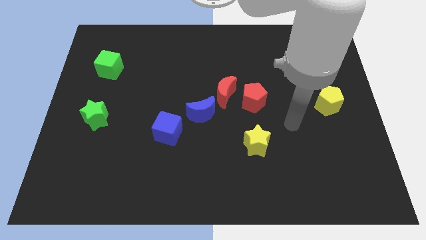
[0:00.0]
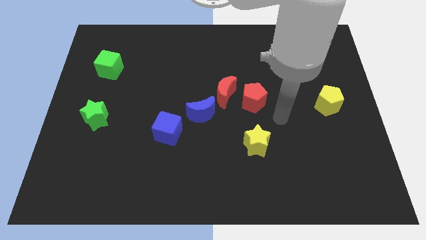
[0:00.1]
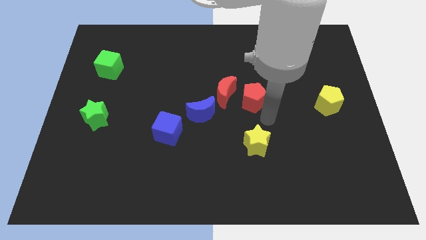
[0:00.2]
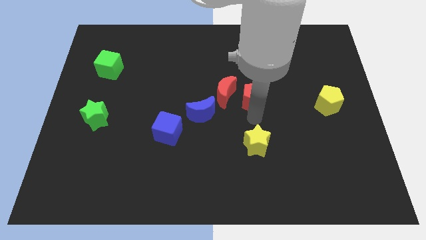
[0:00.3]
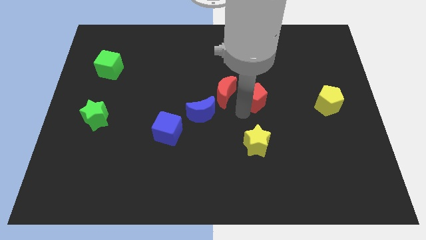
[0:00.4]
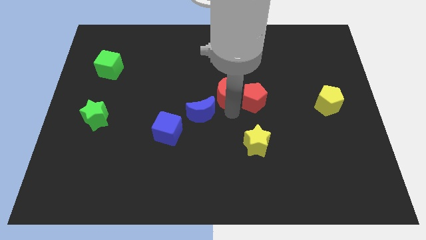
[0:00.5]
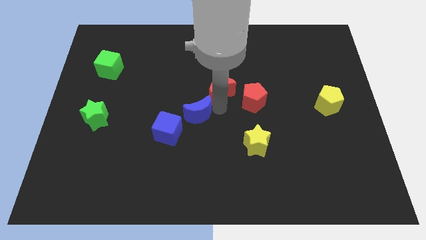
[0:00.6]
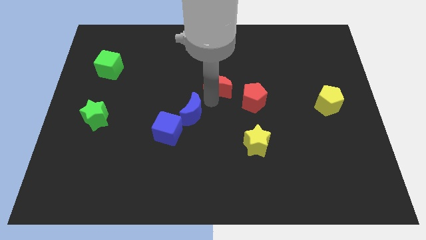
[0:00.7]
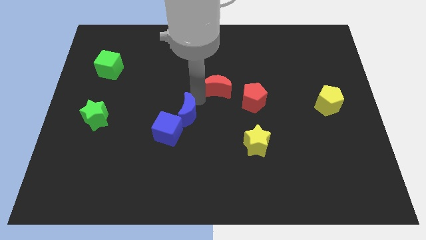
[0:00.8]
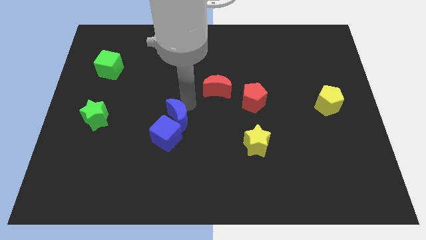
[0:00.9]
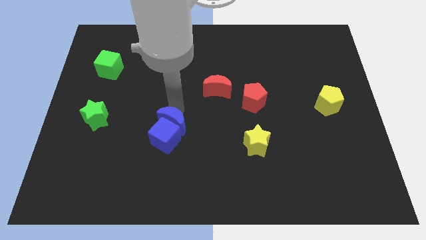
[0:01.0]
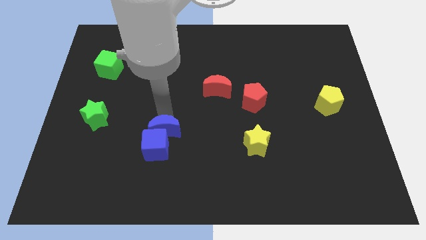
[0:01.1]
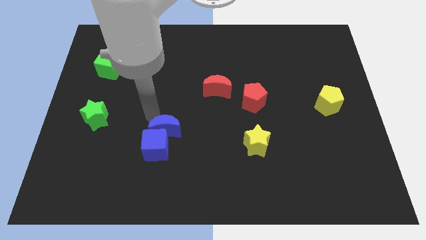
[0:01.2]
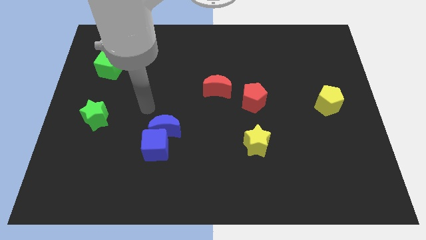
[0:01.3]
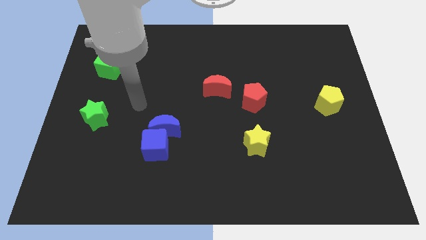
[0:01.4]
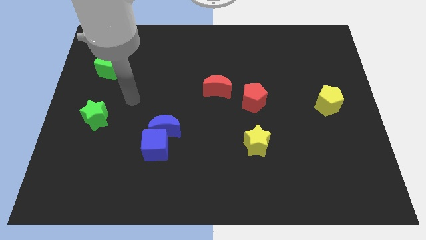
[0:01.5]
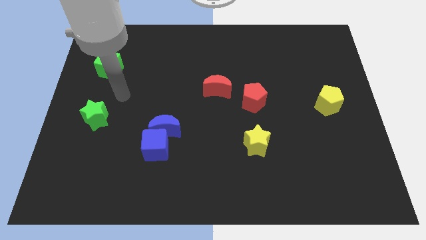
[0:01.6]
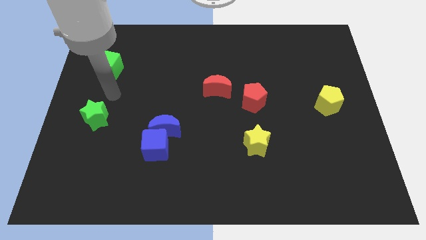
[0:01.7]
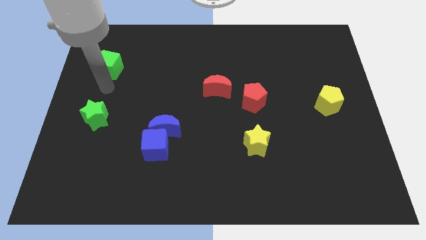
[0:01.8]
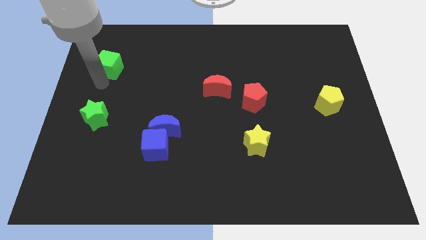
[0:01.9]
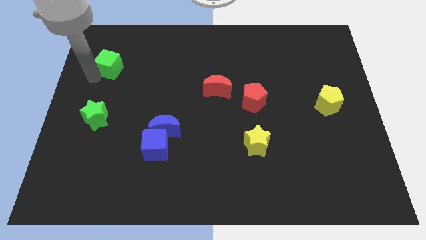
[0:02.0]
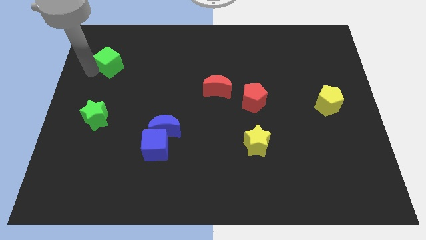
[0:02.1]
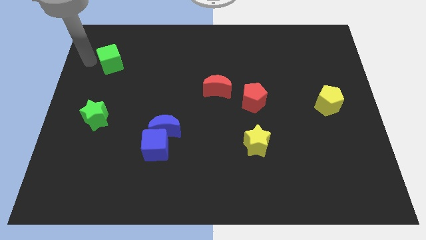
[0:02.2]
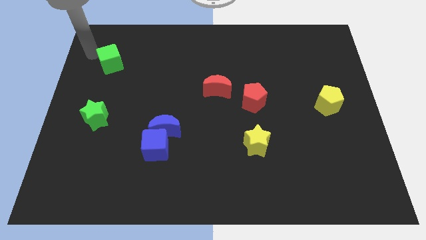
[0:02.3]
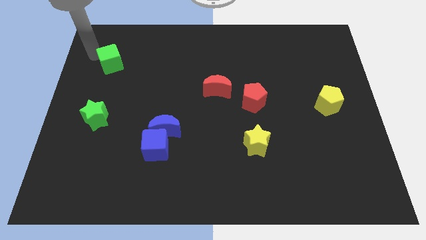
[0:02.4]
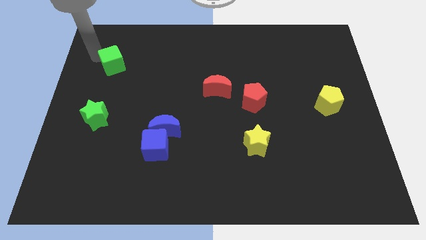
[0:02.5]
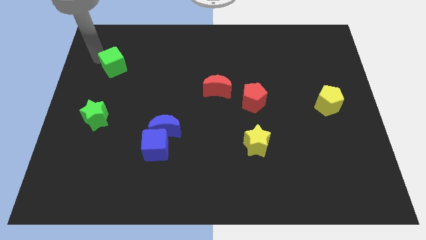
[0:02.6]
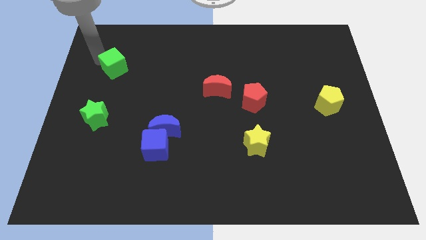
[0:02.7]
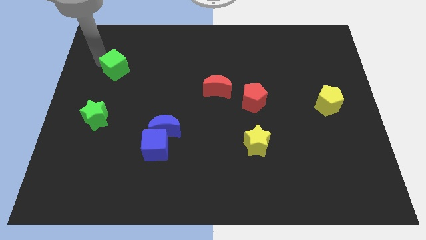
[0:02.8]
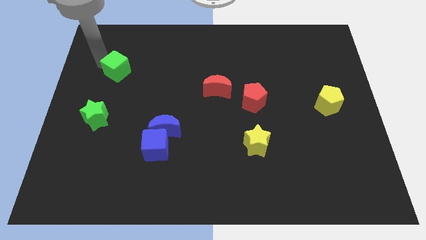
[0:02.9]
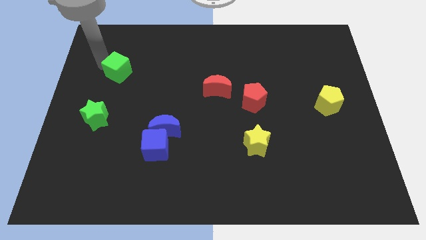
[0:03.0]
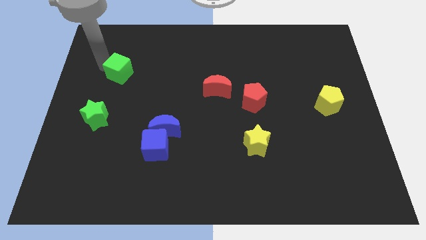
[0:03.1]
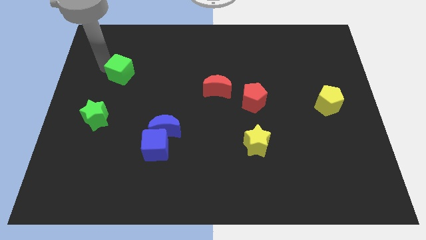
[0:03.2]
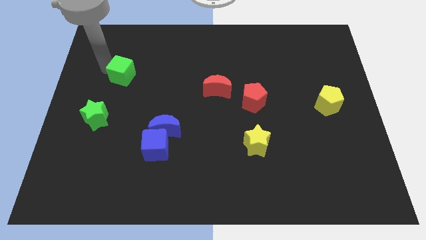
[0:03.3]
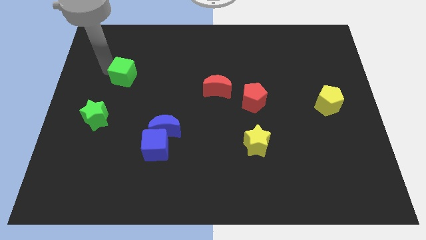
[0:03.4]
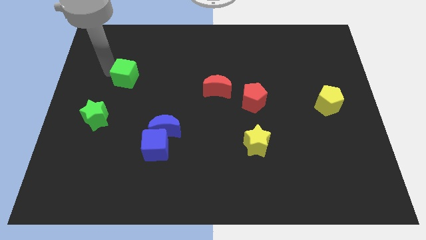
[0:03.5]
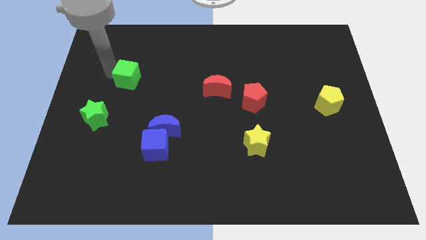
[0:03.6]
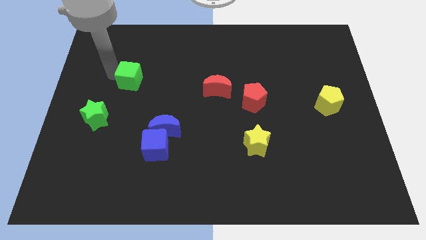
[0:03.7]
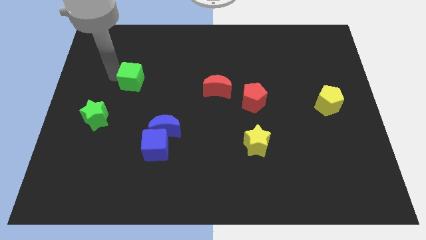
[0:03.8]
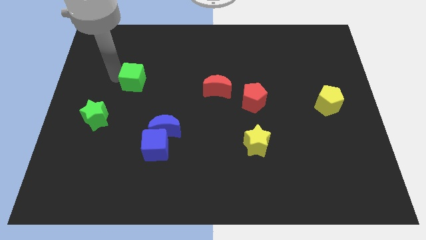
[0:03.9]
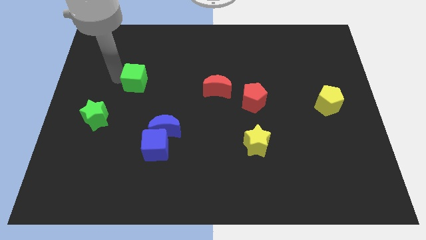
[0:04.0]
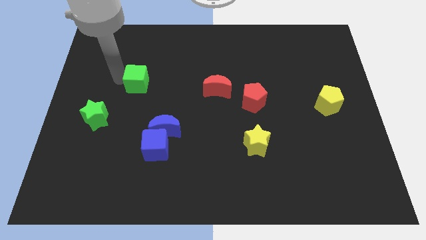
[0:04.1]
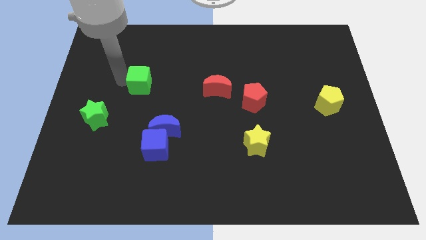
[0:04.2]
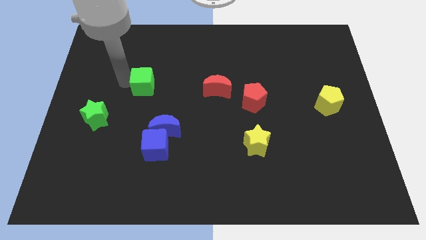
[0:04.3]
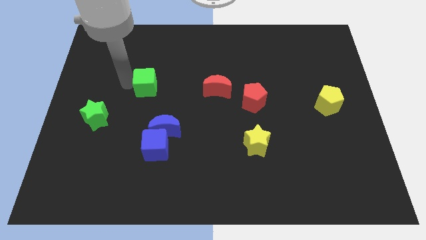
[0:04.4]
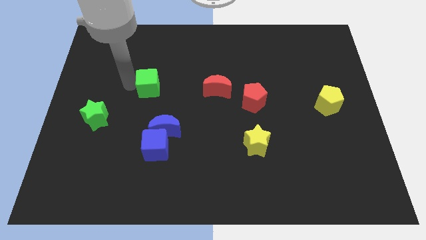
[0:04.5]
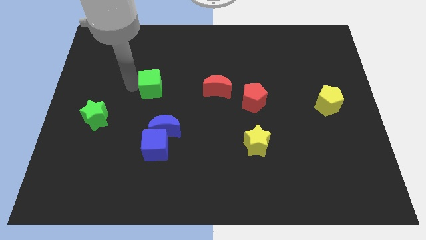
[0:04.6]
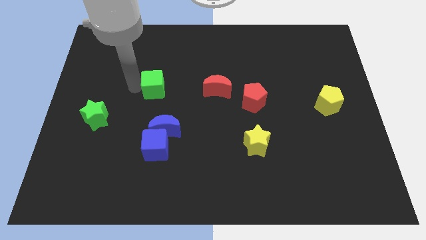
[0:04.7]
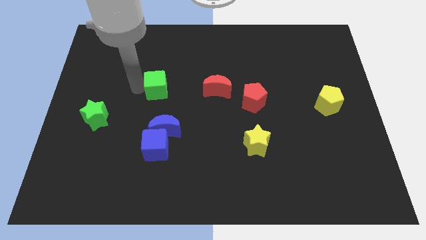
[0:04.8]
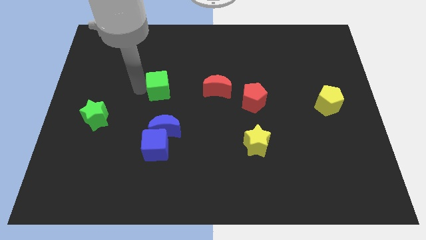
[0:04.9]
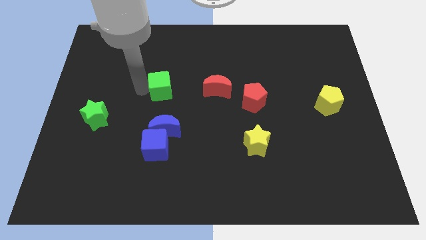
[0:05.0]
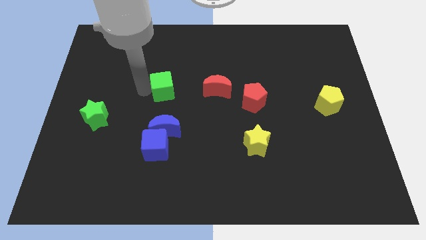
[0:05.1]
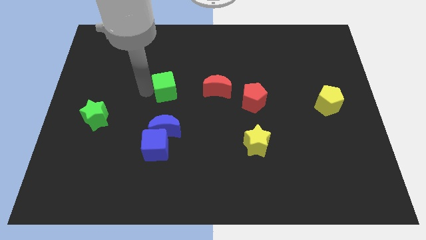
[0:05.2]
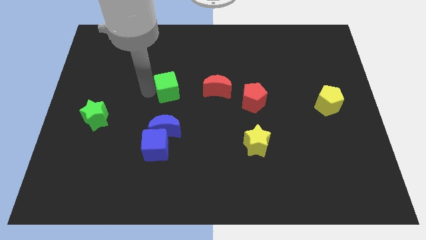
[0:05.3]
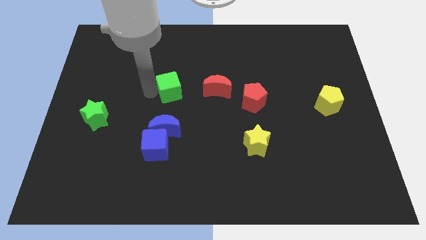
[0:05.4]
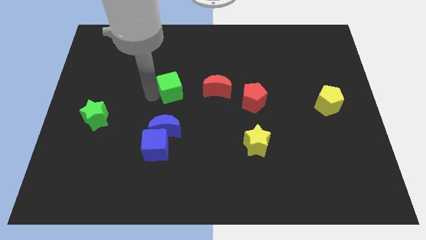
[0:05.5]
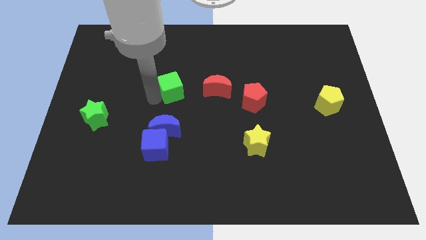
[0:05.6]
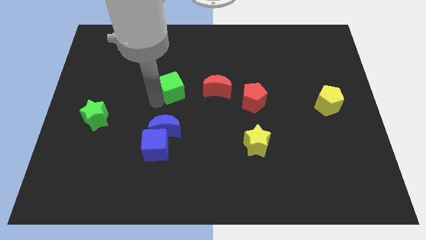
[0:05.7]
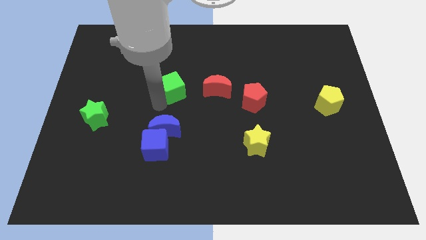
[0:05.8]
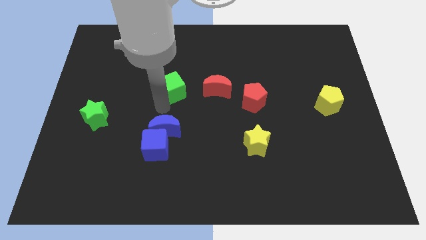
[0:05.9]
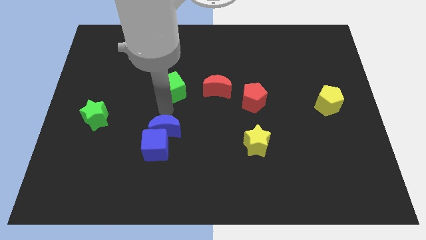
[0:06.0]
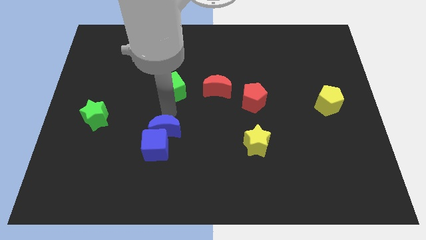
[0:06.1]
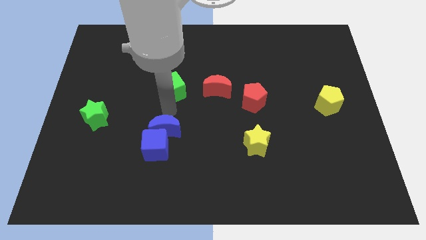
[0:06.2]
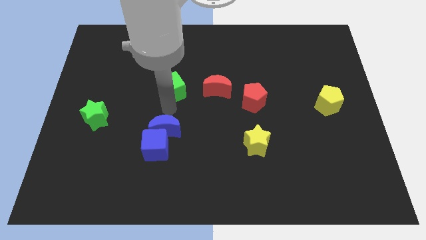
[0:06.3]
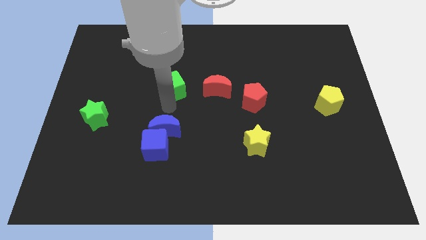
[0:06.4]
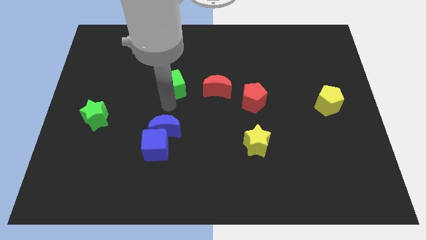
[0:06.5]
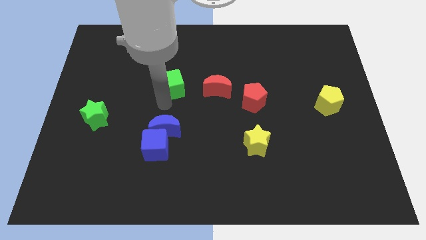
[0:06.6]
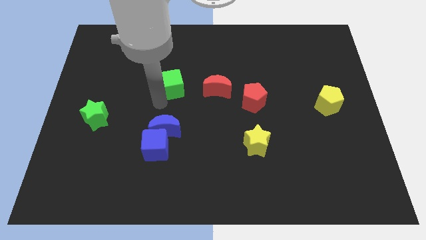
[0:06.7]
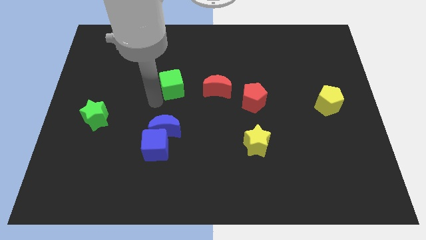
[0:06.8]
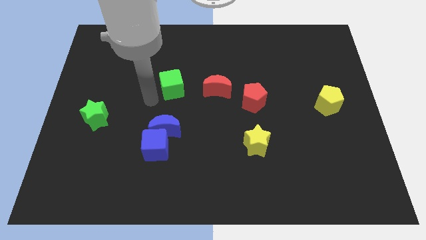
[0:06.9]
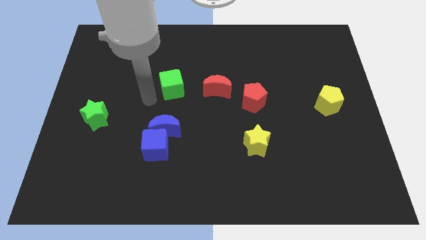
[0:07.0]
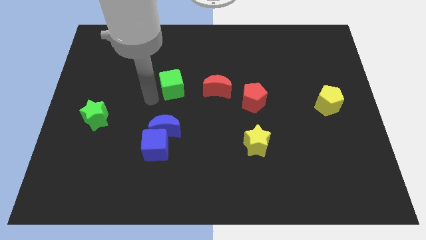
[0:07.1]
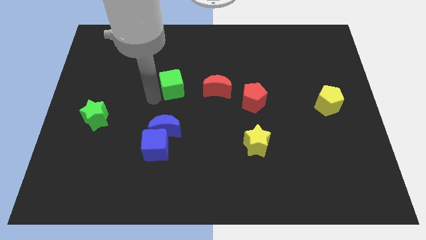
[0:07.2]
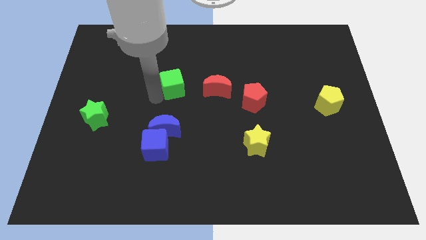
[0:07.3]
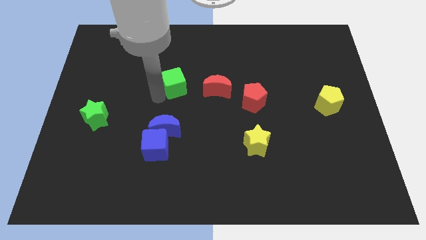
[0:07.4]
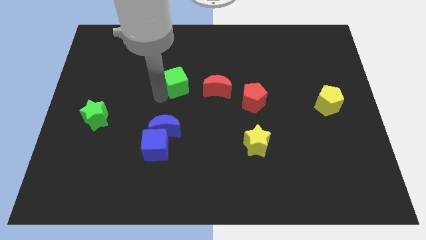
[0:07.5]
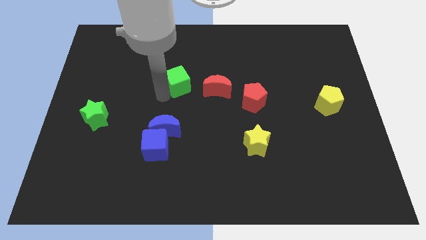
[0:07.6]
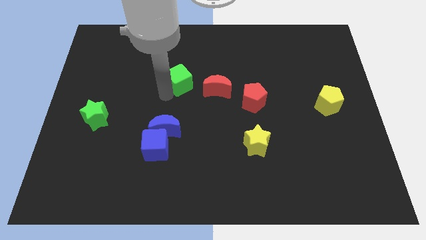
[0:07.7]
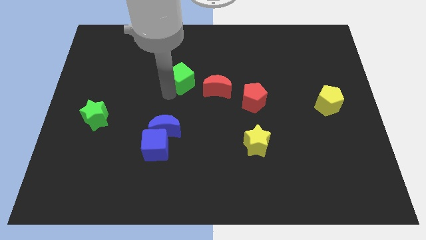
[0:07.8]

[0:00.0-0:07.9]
slide the green cube diagonally up and to the left of the red moon

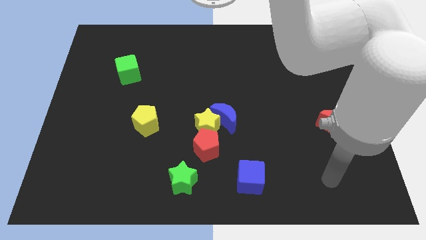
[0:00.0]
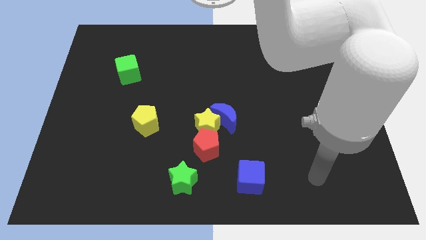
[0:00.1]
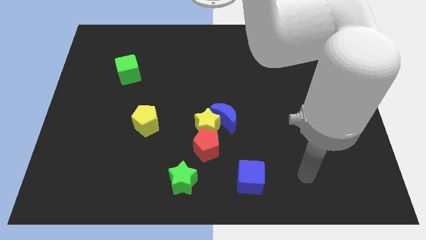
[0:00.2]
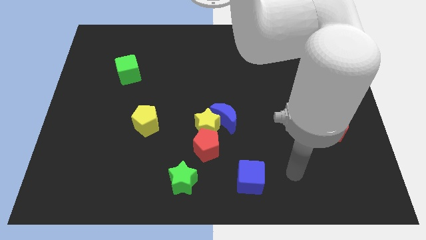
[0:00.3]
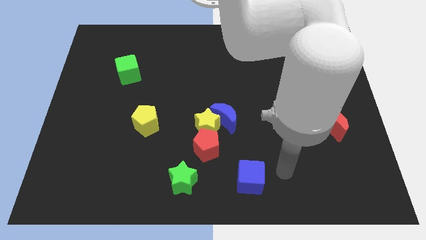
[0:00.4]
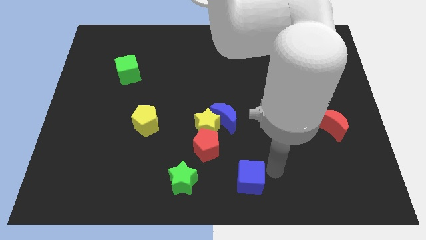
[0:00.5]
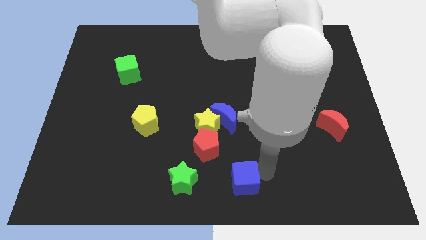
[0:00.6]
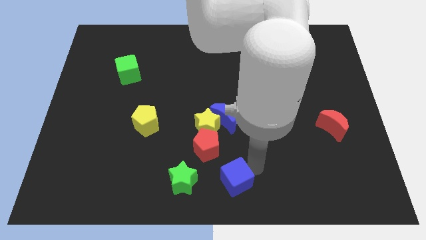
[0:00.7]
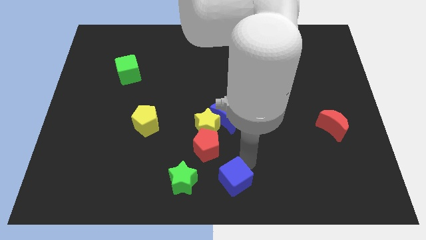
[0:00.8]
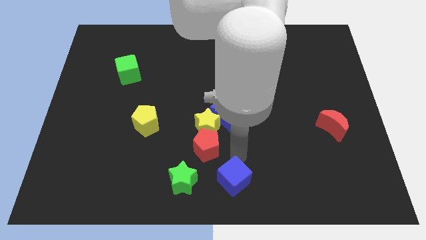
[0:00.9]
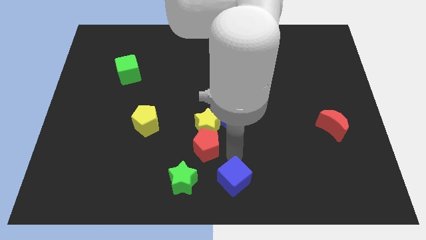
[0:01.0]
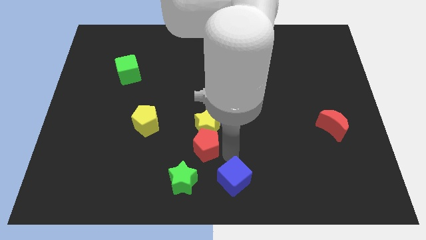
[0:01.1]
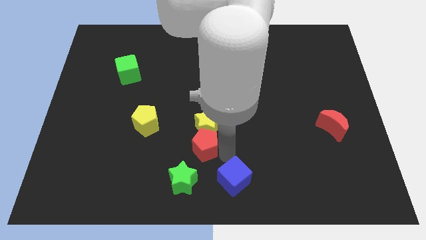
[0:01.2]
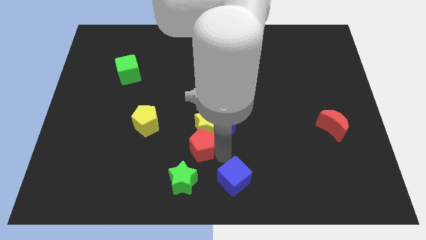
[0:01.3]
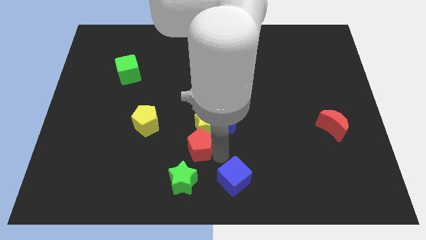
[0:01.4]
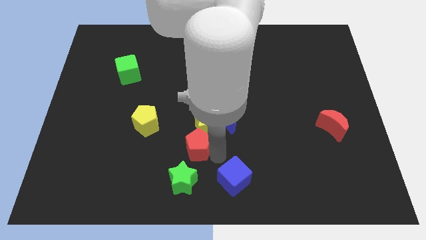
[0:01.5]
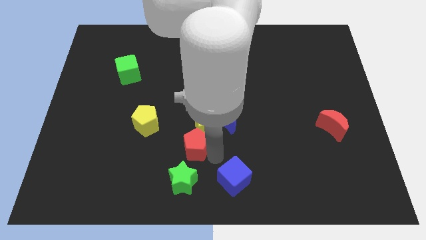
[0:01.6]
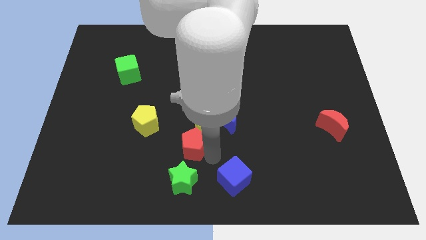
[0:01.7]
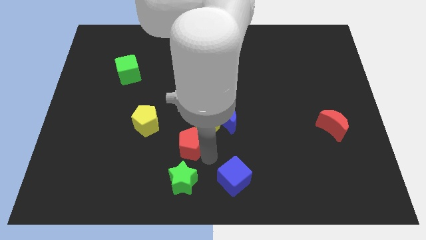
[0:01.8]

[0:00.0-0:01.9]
slide the red pentagon diagonally down and to the right of the yellow pentagon
